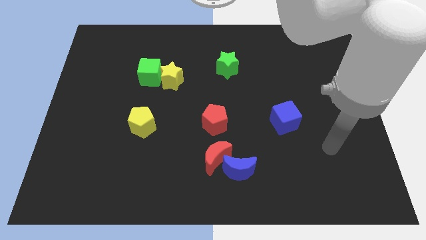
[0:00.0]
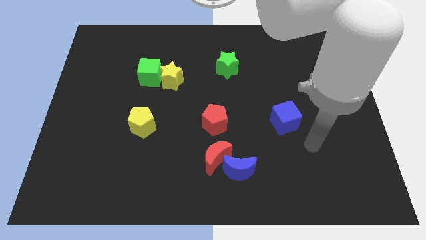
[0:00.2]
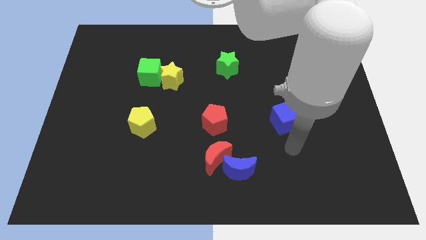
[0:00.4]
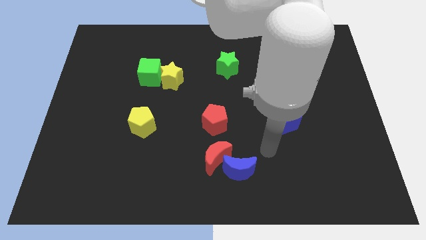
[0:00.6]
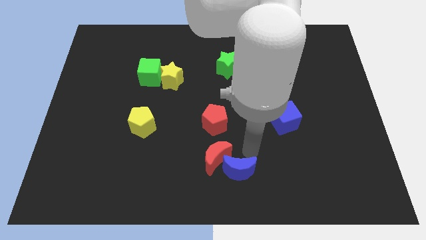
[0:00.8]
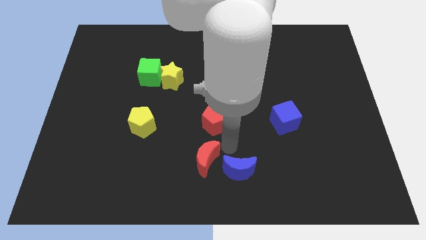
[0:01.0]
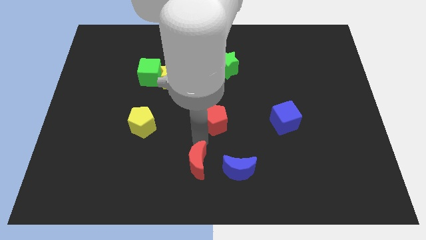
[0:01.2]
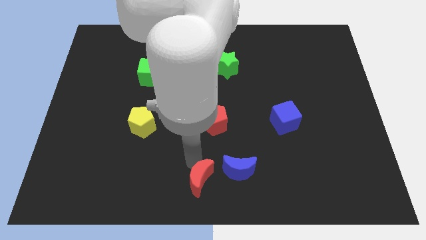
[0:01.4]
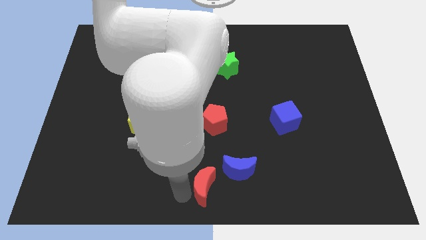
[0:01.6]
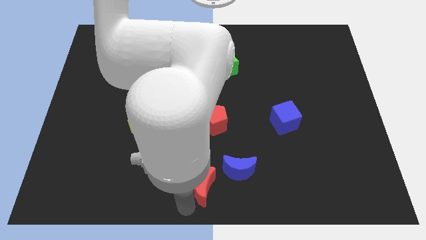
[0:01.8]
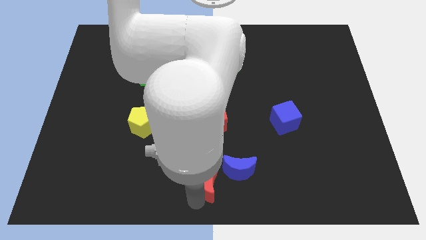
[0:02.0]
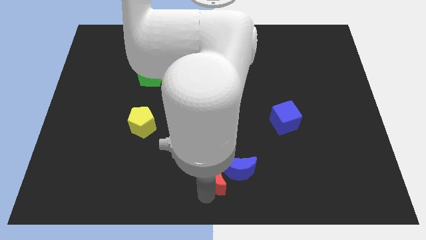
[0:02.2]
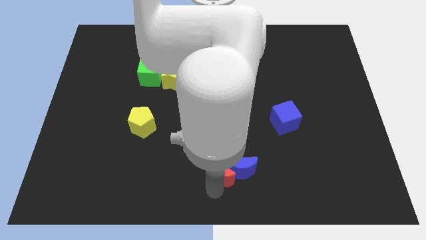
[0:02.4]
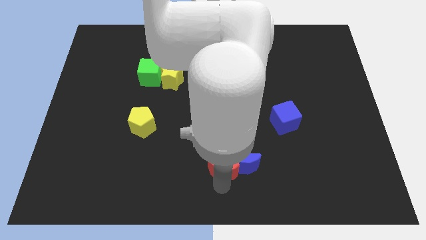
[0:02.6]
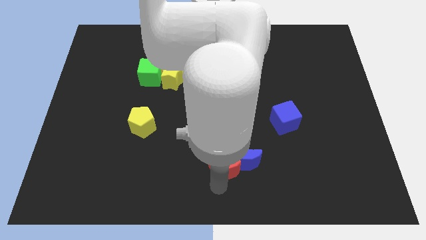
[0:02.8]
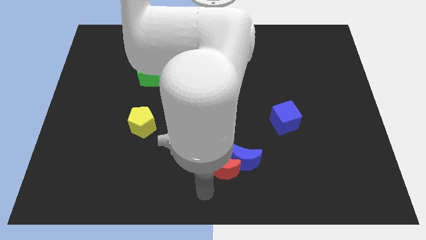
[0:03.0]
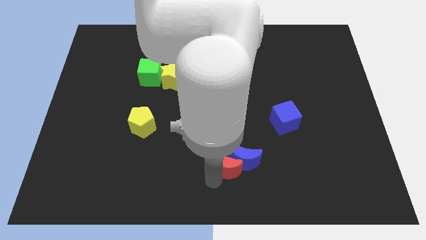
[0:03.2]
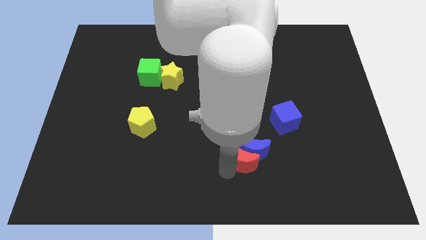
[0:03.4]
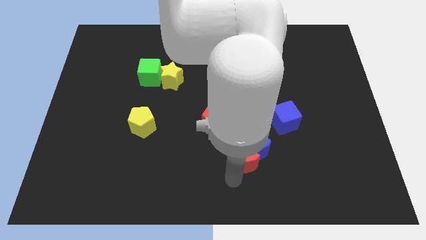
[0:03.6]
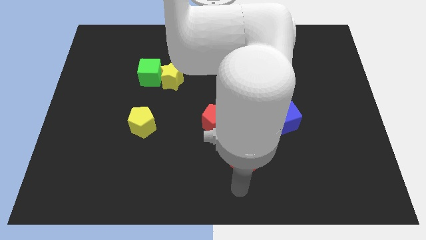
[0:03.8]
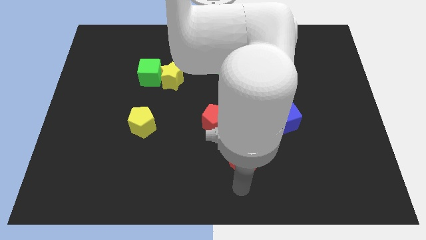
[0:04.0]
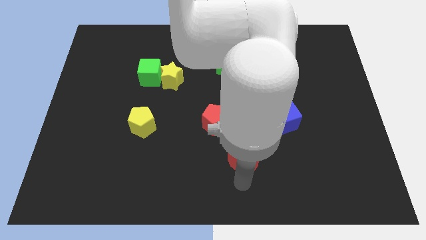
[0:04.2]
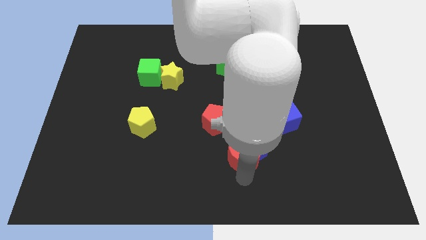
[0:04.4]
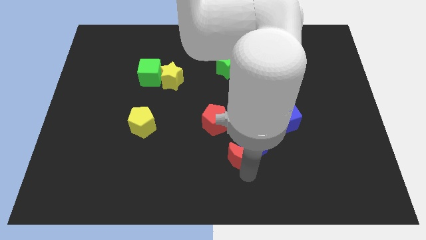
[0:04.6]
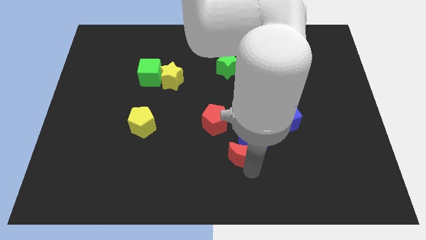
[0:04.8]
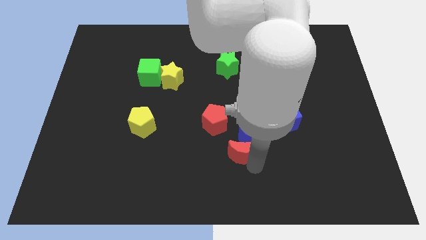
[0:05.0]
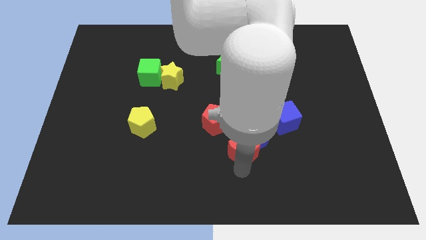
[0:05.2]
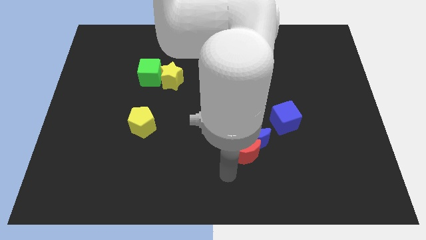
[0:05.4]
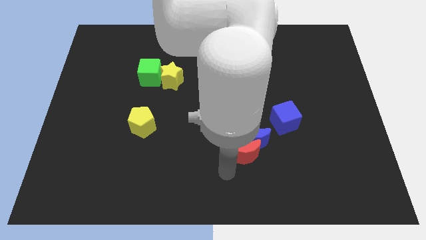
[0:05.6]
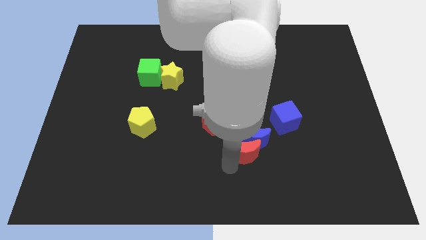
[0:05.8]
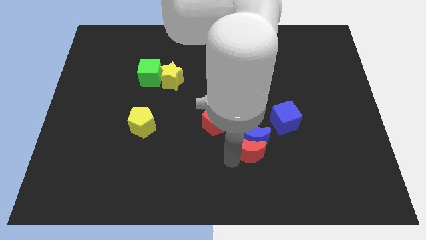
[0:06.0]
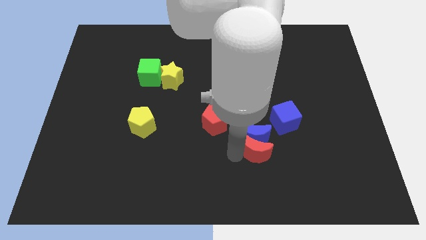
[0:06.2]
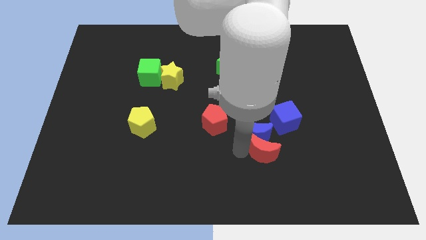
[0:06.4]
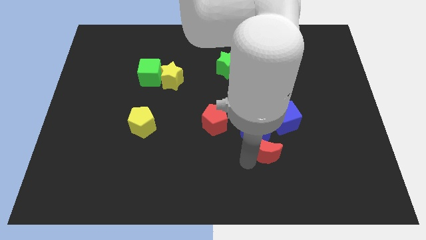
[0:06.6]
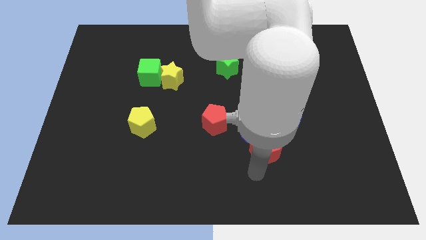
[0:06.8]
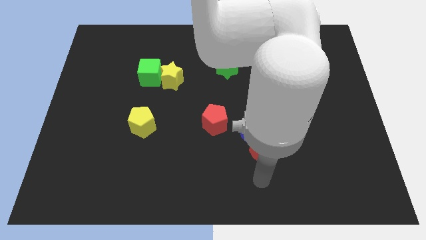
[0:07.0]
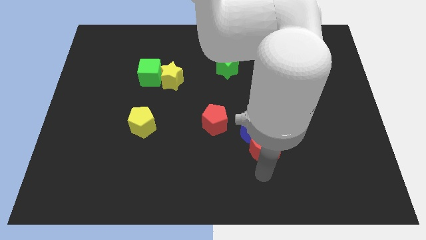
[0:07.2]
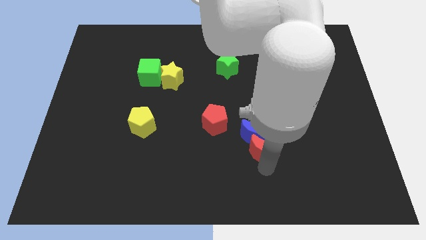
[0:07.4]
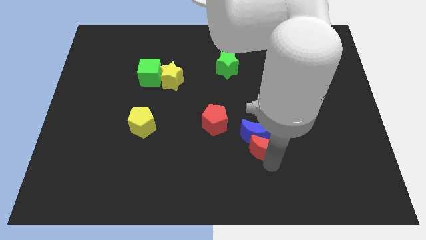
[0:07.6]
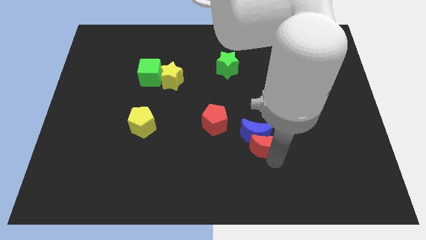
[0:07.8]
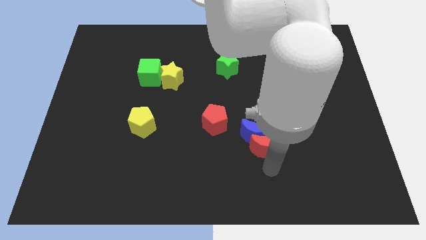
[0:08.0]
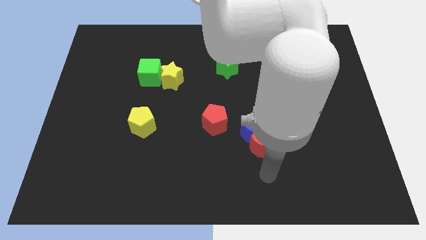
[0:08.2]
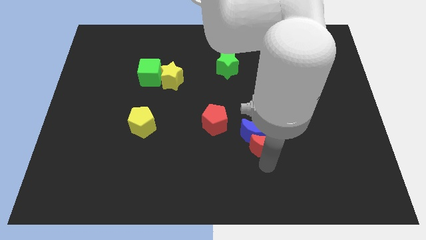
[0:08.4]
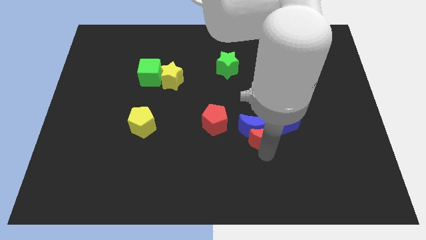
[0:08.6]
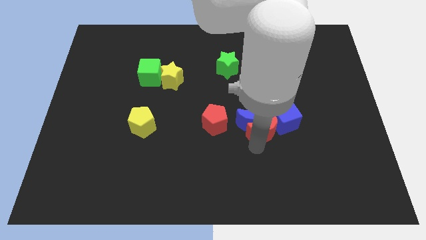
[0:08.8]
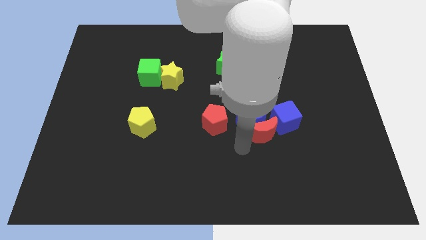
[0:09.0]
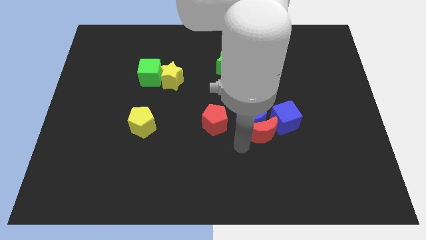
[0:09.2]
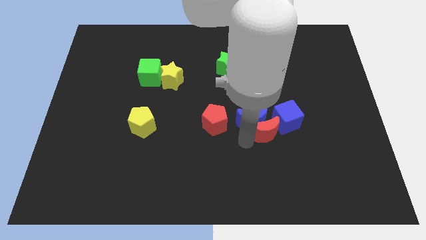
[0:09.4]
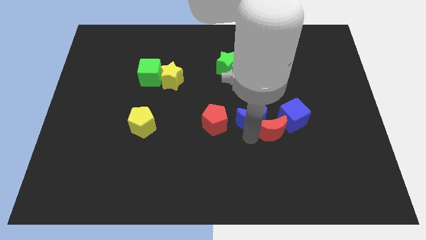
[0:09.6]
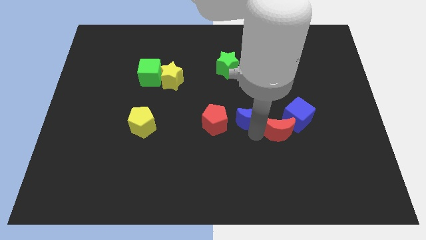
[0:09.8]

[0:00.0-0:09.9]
put the red moon towards the blue cube

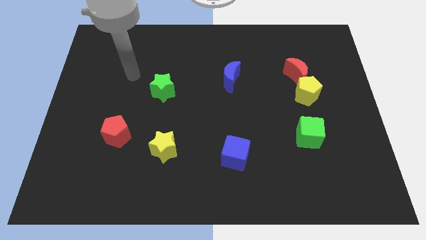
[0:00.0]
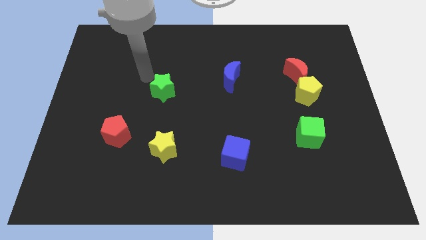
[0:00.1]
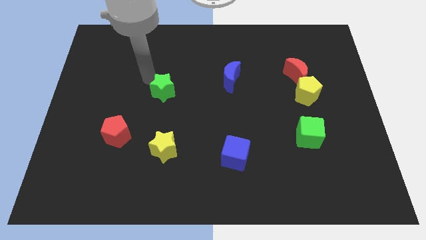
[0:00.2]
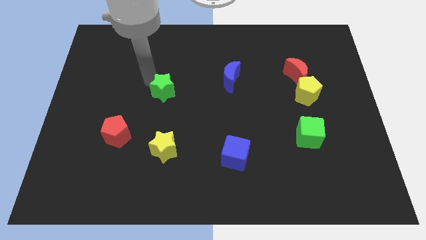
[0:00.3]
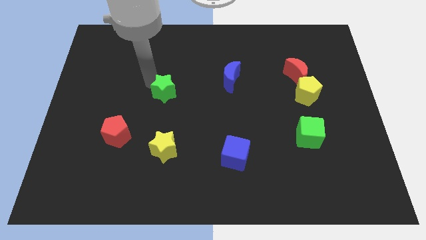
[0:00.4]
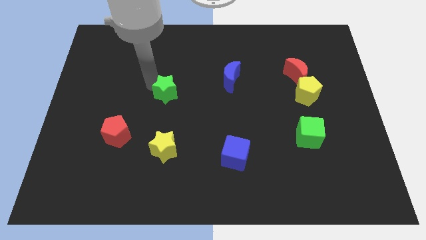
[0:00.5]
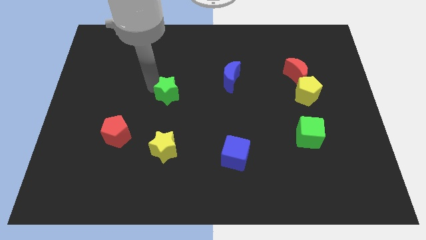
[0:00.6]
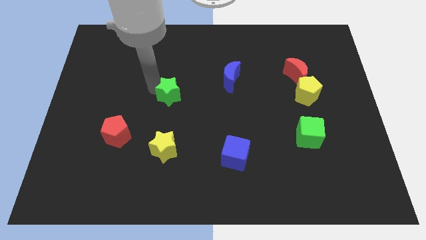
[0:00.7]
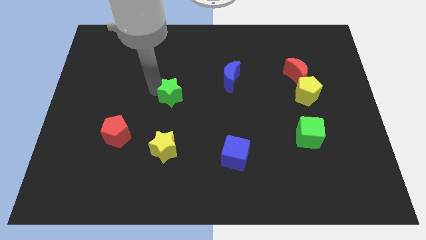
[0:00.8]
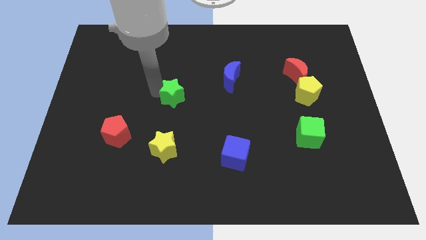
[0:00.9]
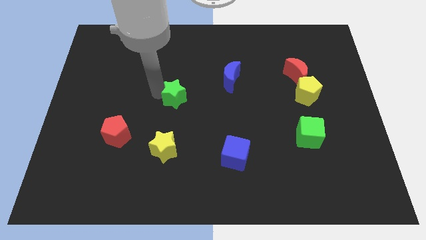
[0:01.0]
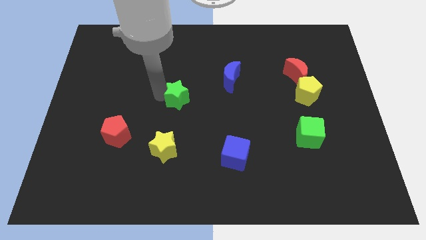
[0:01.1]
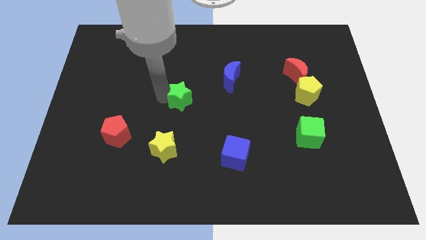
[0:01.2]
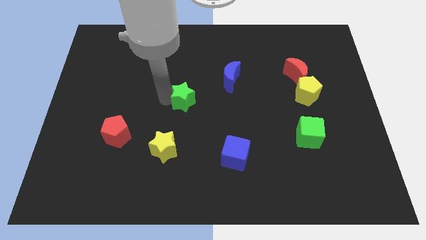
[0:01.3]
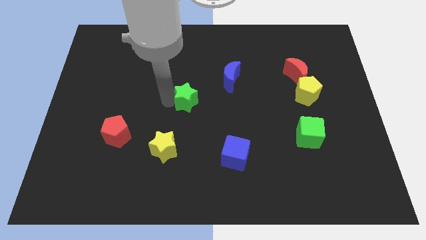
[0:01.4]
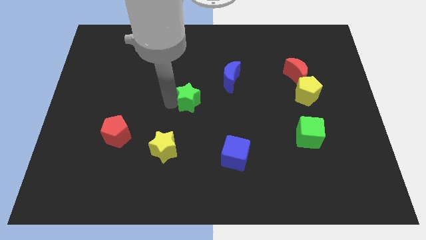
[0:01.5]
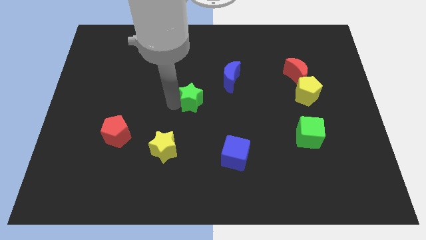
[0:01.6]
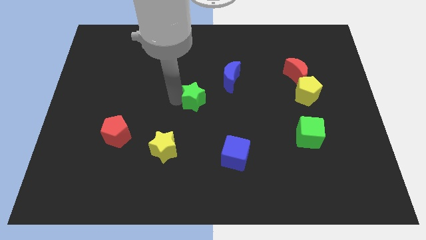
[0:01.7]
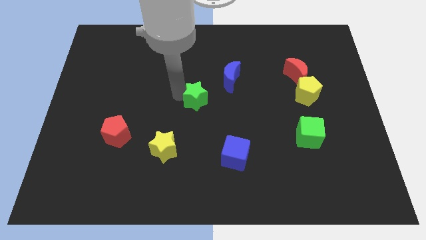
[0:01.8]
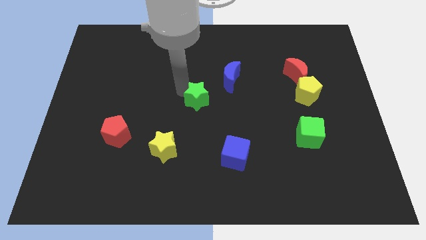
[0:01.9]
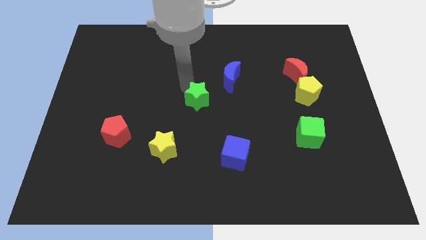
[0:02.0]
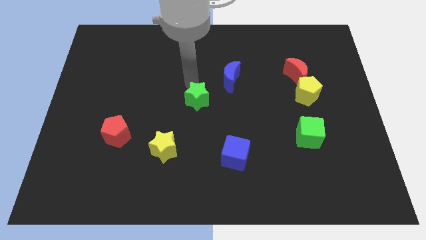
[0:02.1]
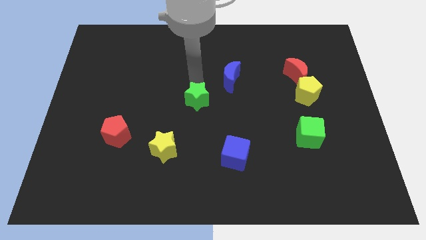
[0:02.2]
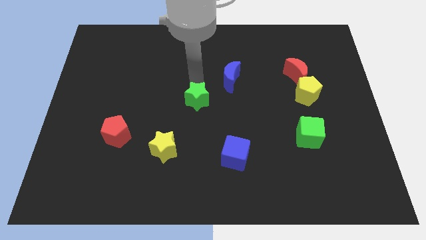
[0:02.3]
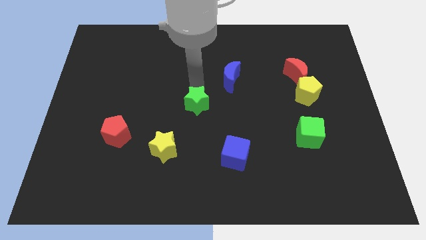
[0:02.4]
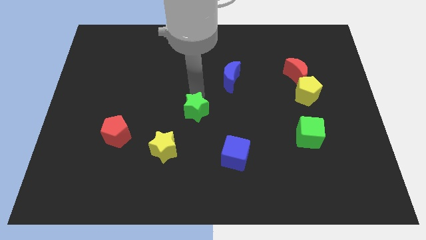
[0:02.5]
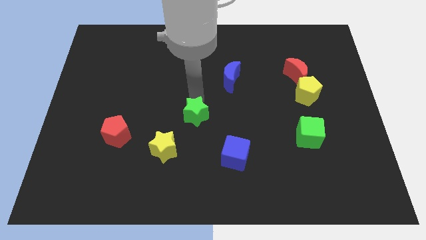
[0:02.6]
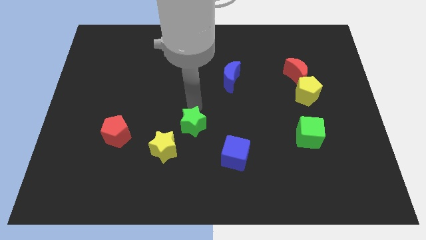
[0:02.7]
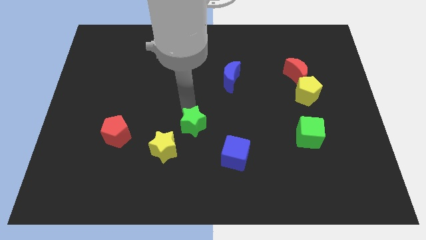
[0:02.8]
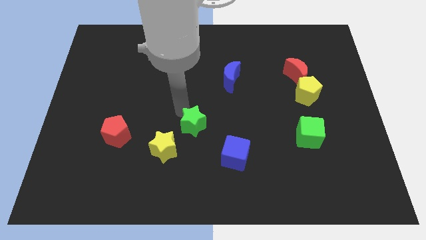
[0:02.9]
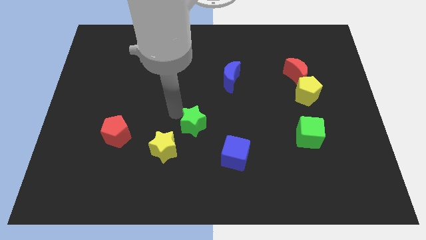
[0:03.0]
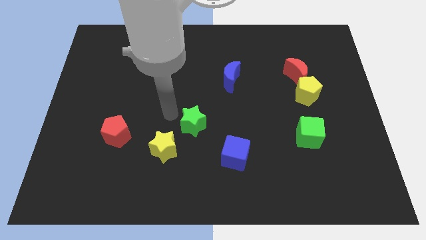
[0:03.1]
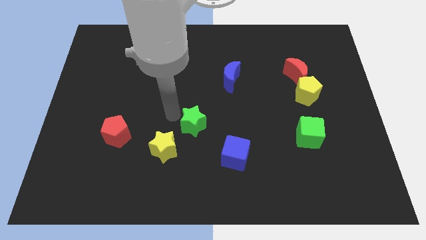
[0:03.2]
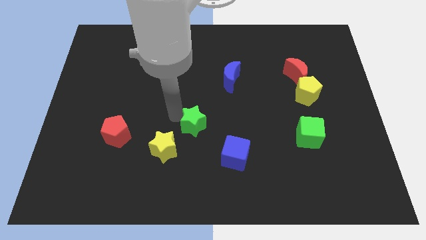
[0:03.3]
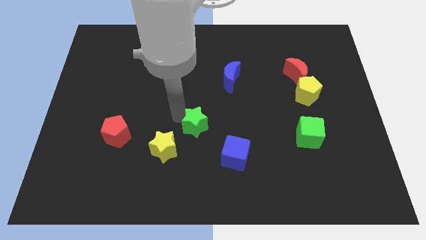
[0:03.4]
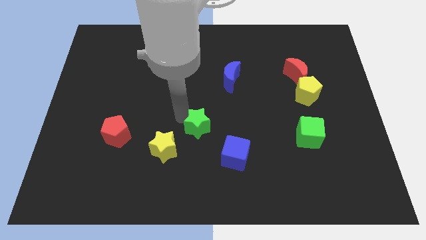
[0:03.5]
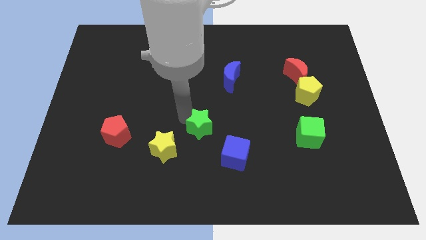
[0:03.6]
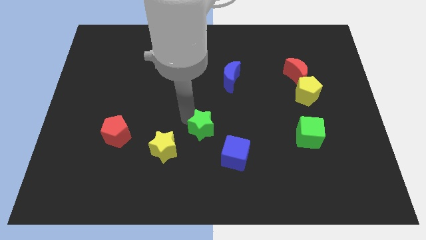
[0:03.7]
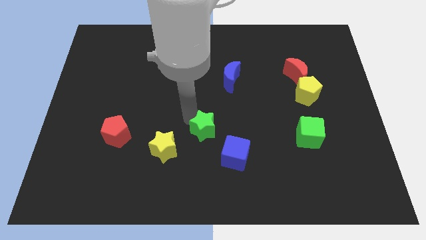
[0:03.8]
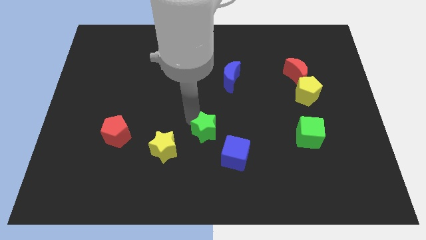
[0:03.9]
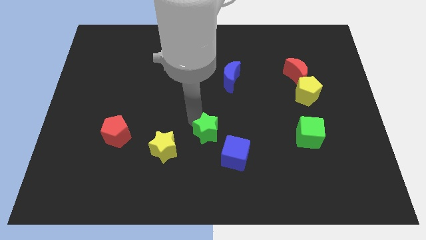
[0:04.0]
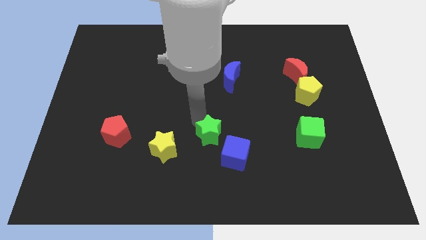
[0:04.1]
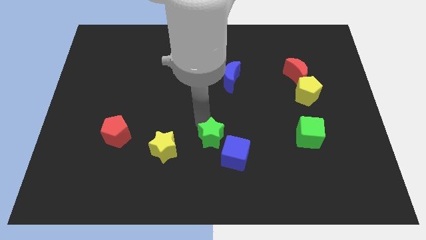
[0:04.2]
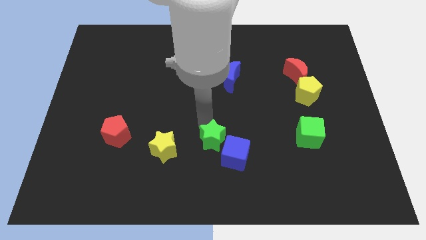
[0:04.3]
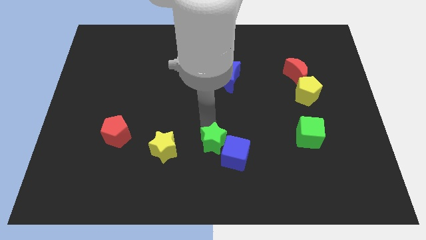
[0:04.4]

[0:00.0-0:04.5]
put the green star towards the blue cube
